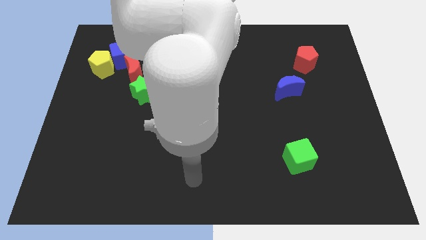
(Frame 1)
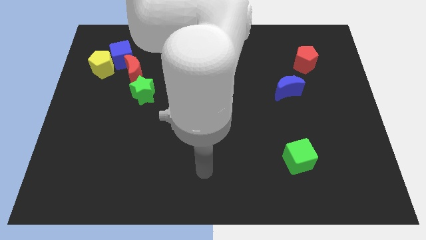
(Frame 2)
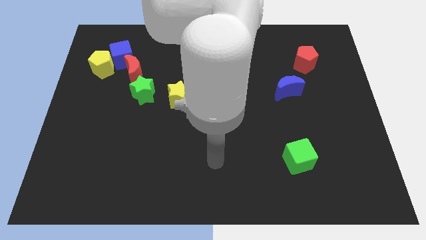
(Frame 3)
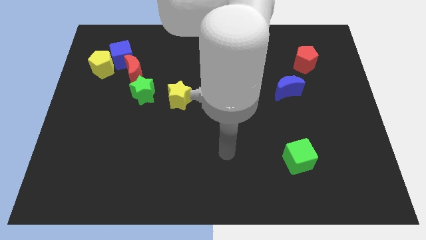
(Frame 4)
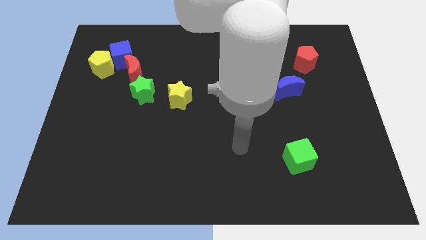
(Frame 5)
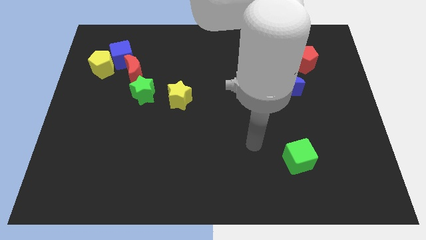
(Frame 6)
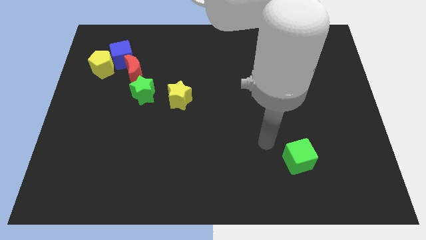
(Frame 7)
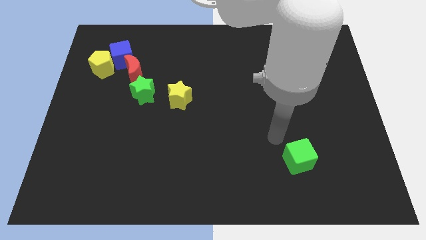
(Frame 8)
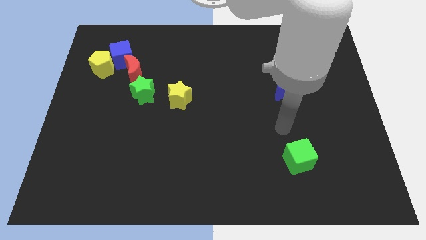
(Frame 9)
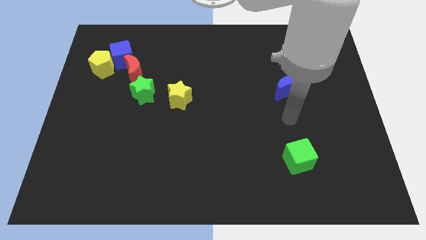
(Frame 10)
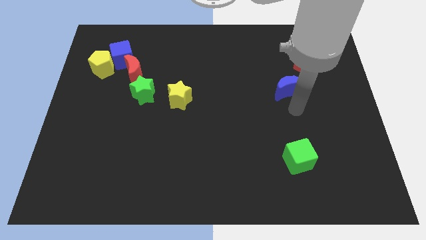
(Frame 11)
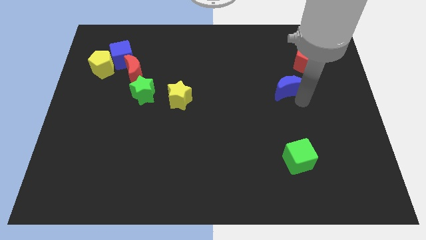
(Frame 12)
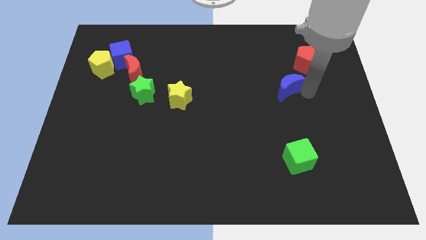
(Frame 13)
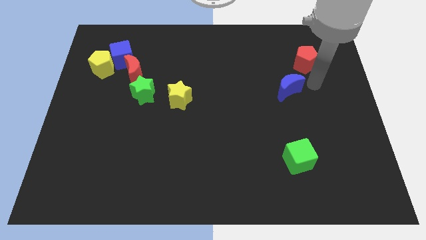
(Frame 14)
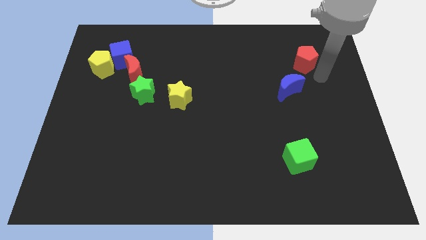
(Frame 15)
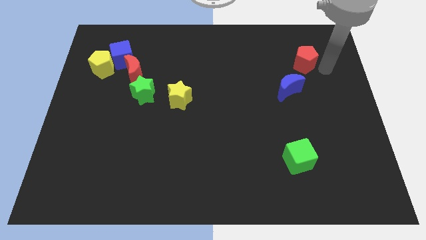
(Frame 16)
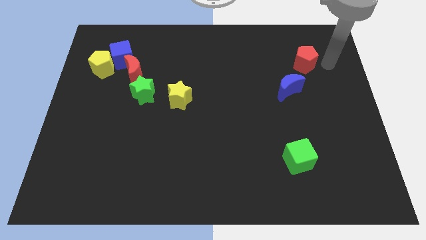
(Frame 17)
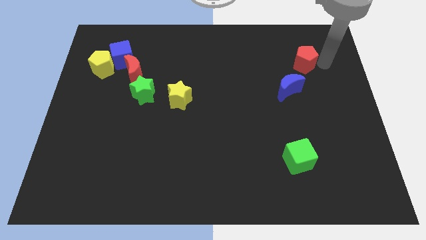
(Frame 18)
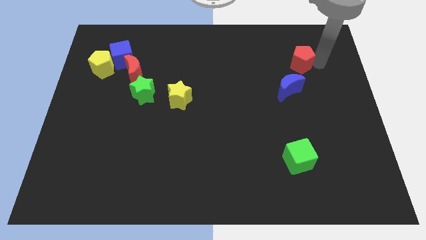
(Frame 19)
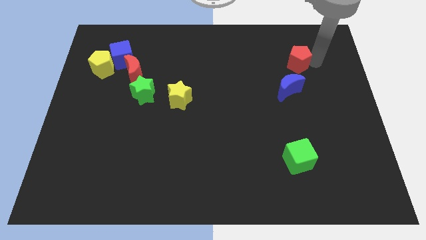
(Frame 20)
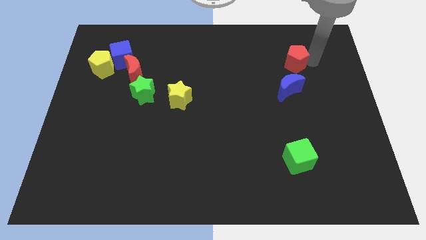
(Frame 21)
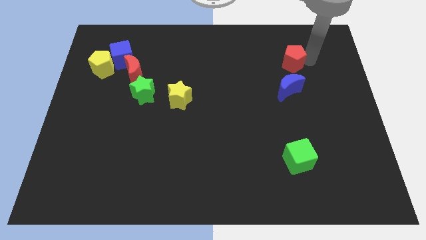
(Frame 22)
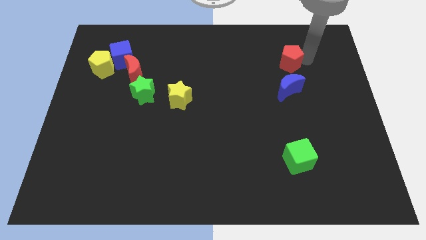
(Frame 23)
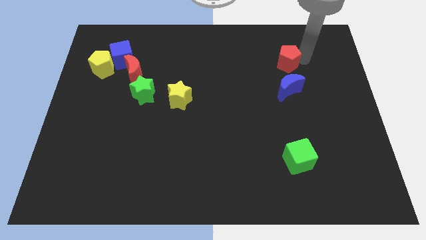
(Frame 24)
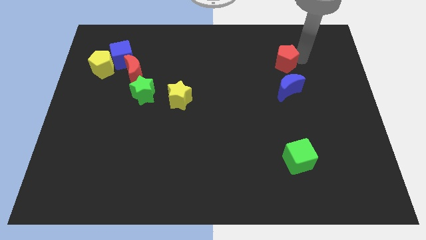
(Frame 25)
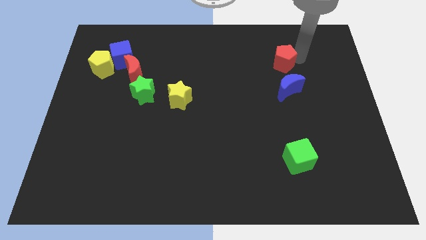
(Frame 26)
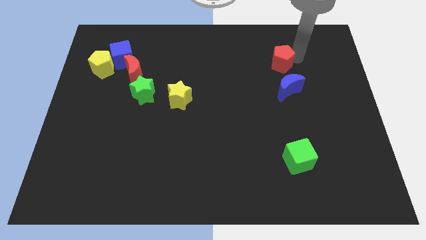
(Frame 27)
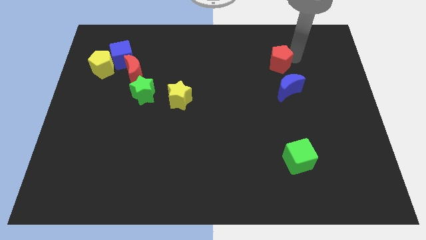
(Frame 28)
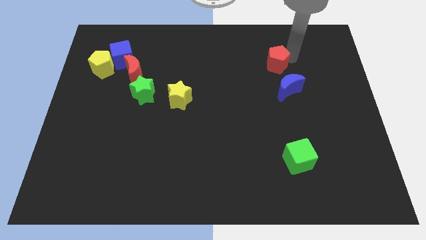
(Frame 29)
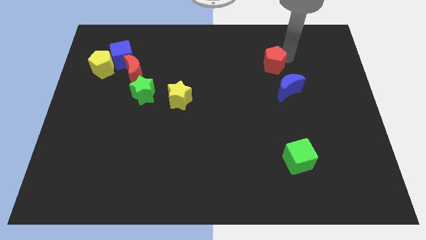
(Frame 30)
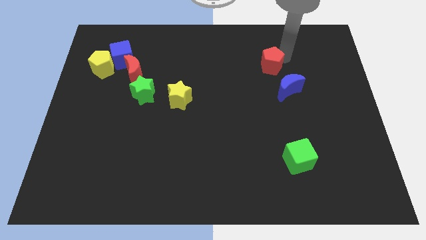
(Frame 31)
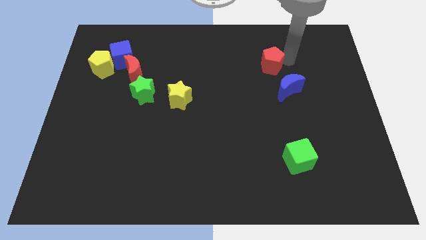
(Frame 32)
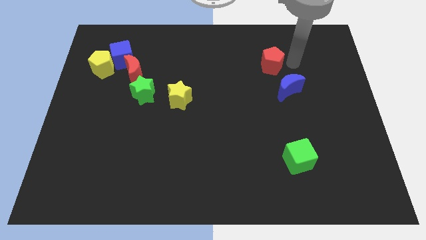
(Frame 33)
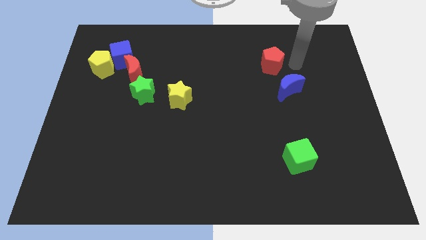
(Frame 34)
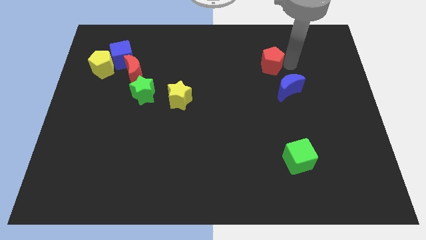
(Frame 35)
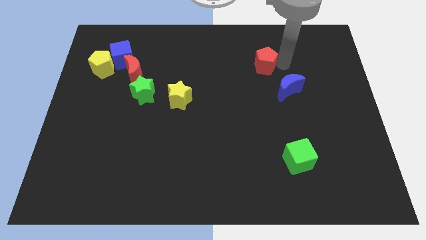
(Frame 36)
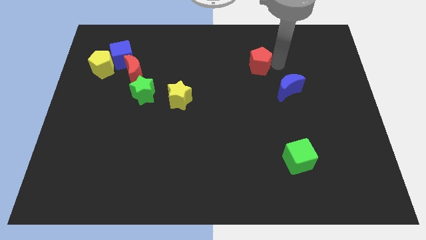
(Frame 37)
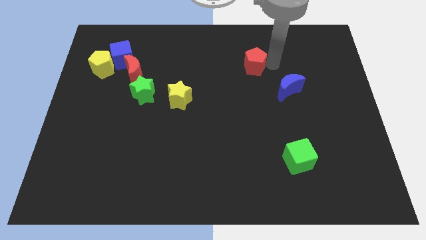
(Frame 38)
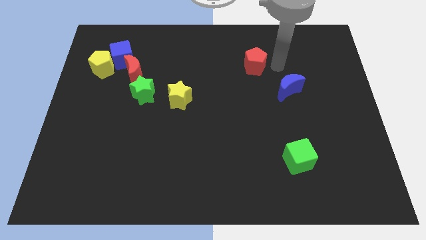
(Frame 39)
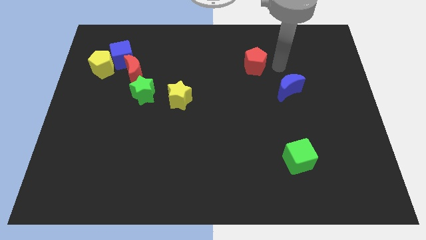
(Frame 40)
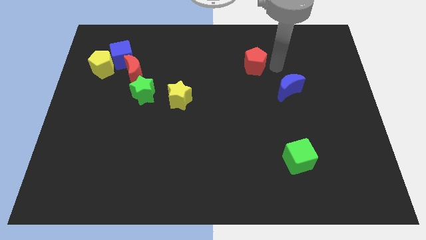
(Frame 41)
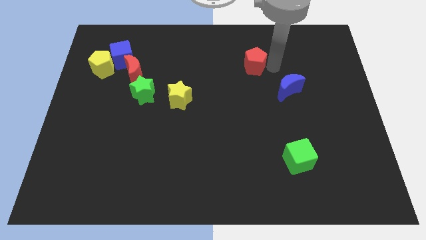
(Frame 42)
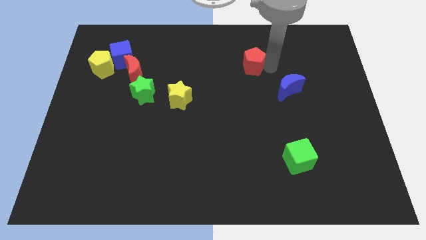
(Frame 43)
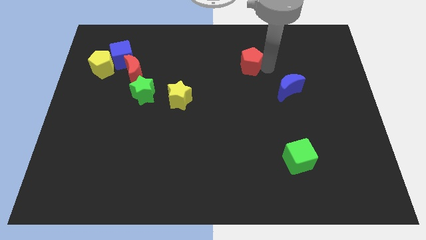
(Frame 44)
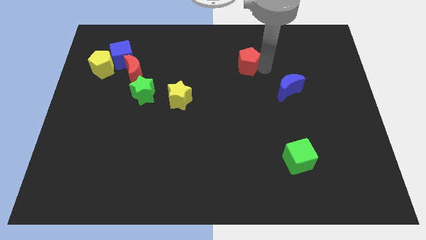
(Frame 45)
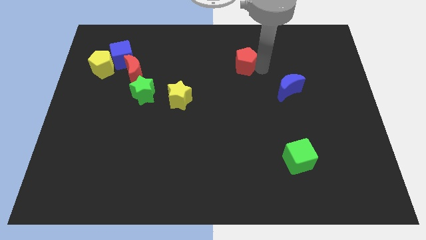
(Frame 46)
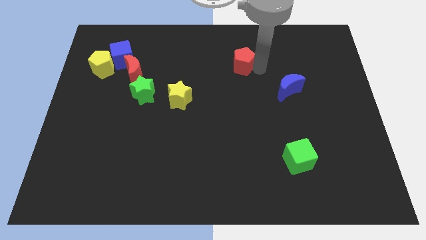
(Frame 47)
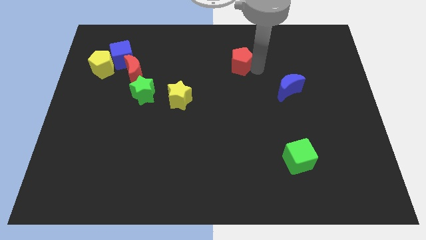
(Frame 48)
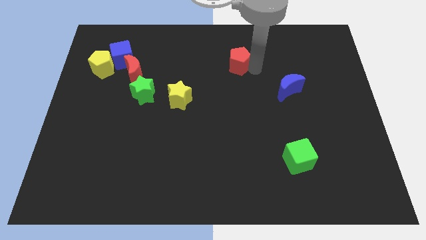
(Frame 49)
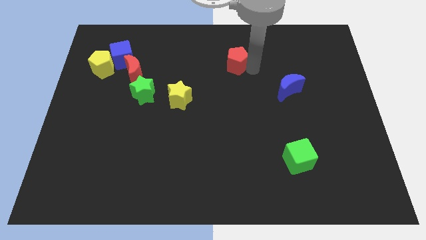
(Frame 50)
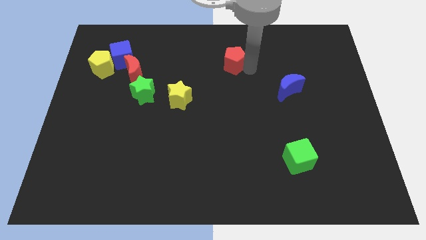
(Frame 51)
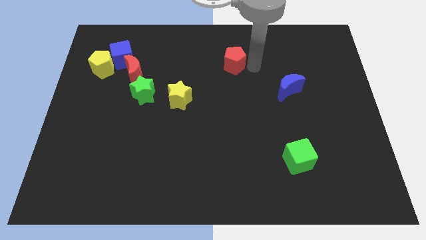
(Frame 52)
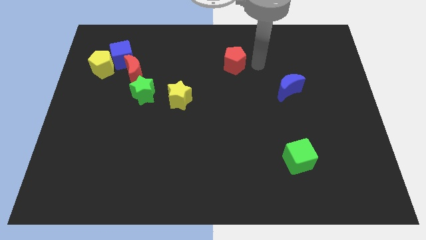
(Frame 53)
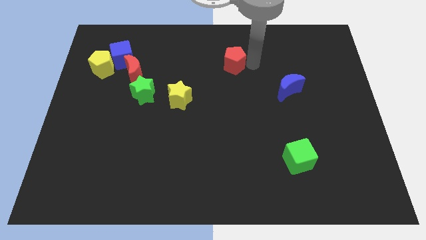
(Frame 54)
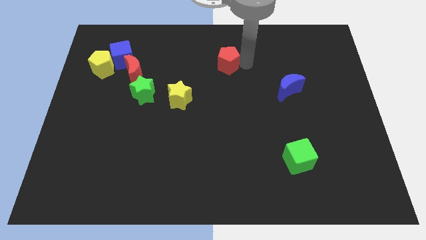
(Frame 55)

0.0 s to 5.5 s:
move the red pentagon to the left

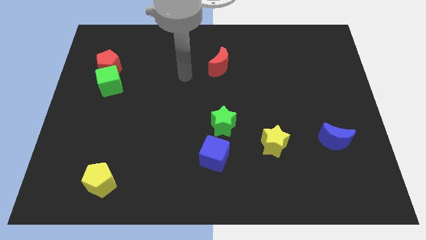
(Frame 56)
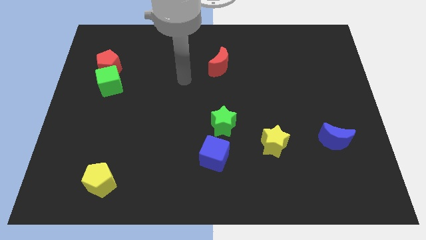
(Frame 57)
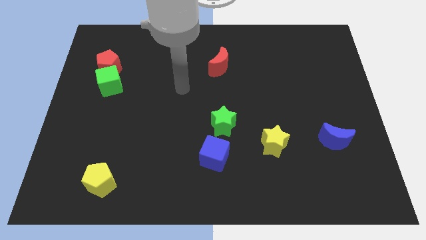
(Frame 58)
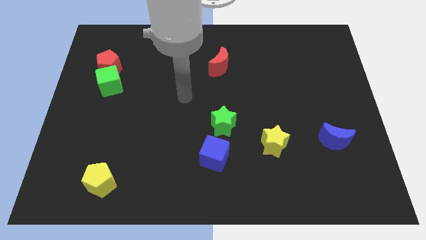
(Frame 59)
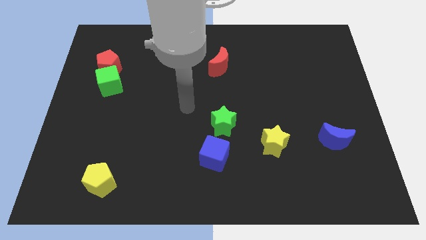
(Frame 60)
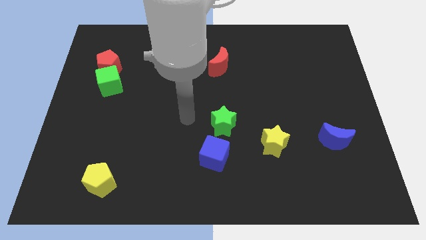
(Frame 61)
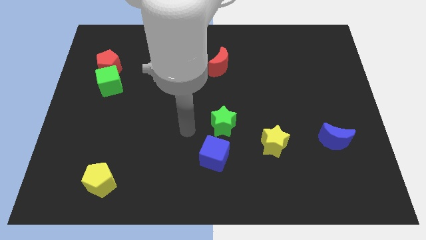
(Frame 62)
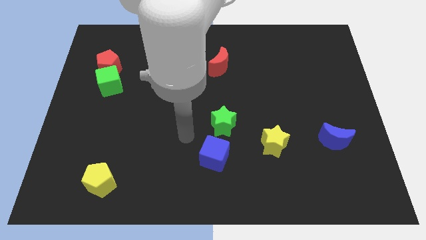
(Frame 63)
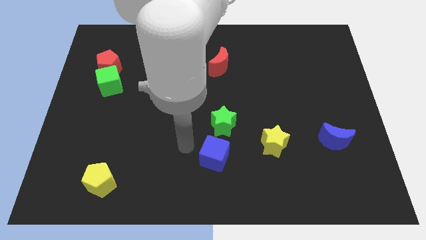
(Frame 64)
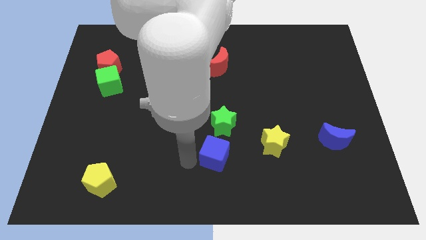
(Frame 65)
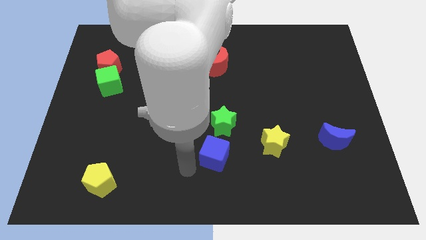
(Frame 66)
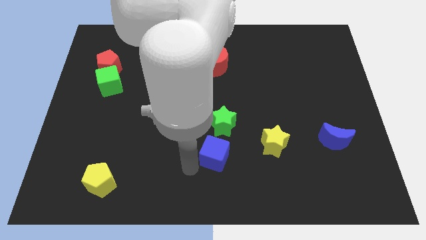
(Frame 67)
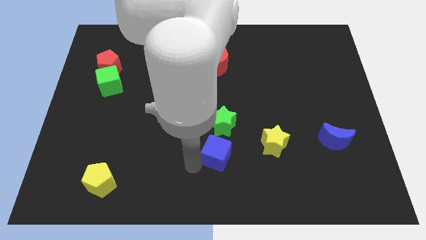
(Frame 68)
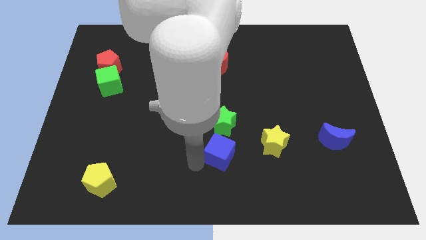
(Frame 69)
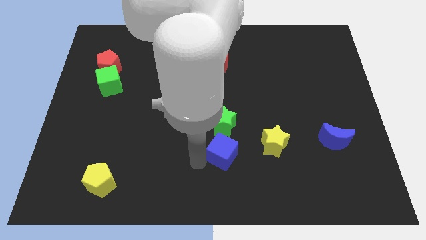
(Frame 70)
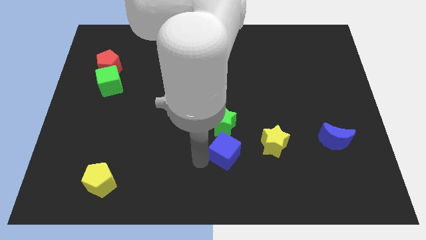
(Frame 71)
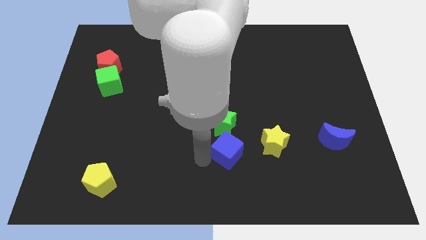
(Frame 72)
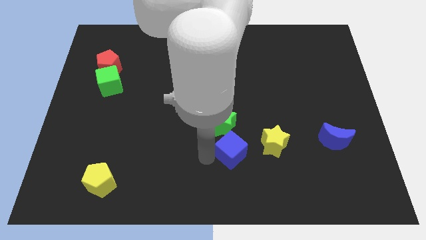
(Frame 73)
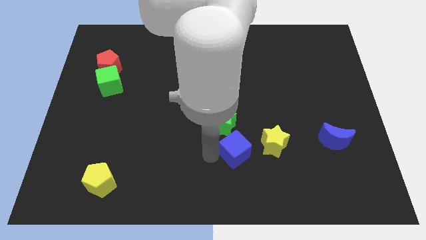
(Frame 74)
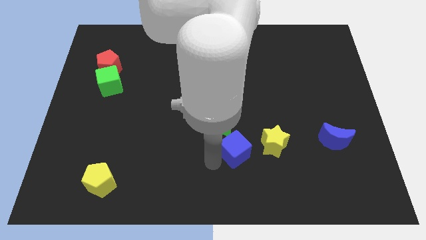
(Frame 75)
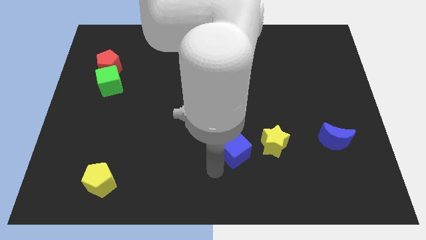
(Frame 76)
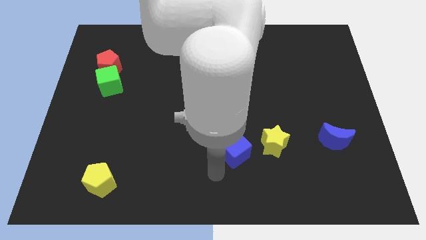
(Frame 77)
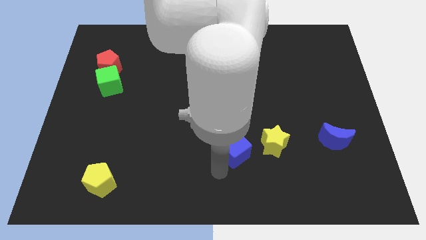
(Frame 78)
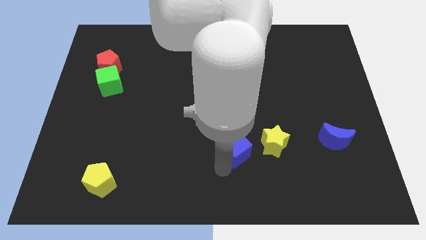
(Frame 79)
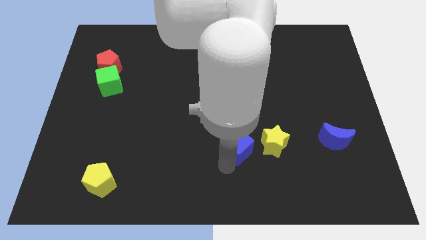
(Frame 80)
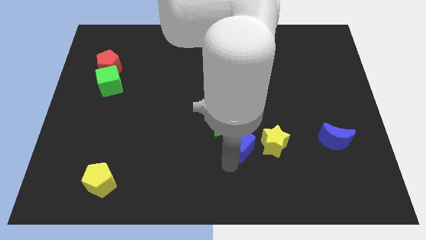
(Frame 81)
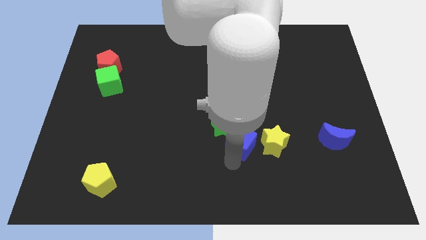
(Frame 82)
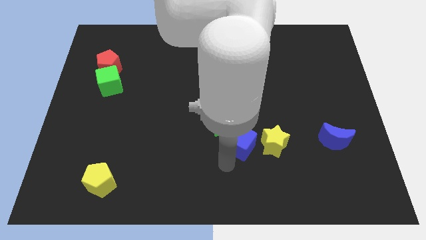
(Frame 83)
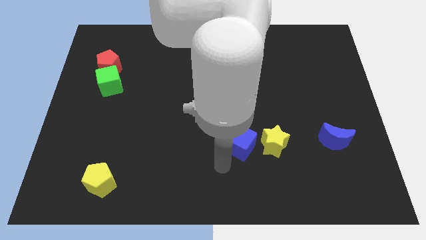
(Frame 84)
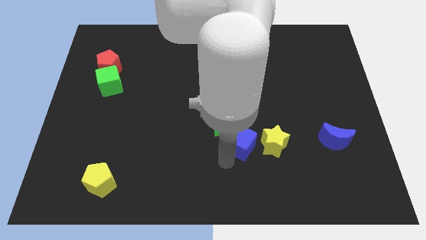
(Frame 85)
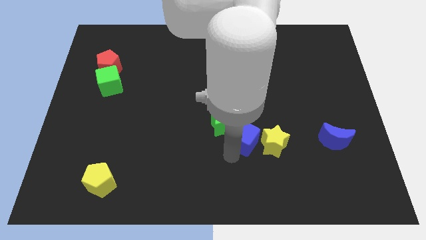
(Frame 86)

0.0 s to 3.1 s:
slightly push the blue cube up and to the right diagonally
